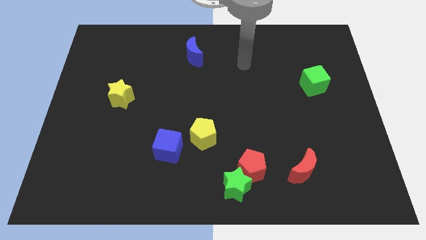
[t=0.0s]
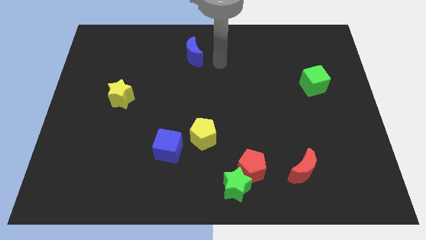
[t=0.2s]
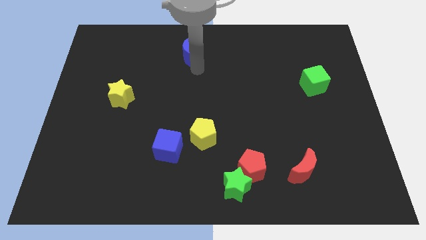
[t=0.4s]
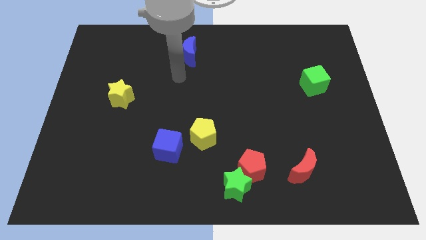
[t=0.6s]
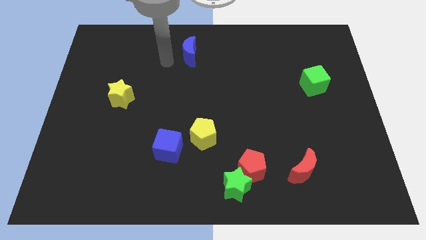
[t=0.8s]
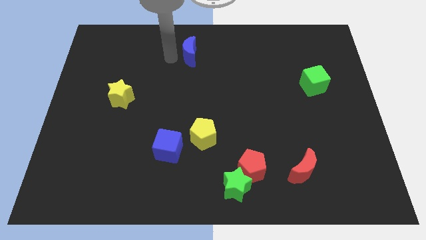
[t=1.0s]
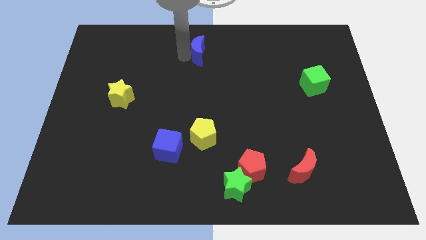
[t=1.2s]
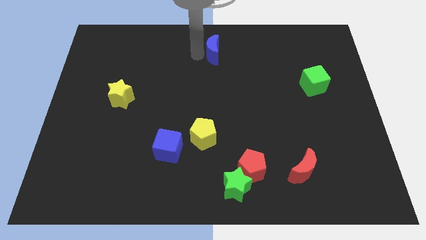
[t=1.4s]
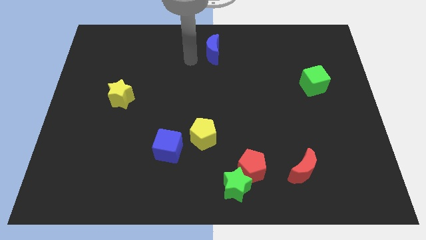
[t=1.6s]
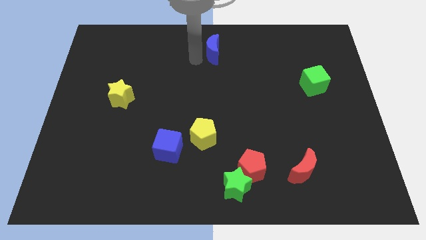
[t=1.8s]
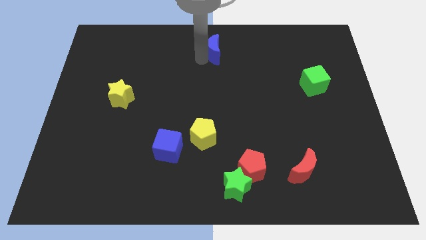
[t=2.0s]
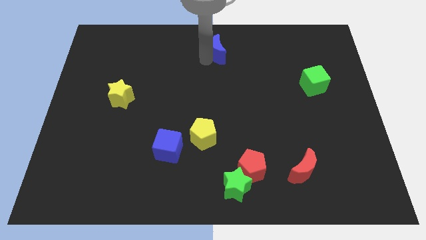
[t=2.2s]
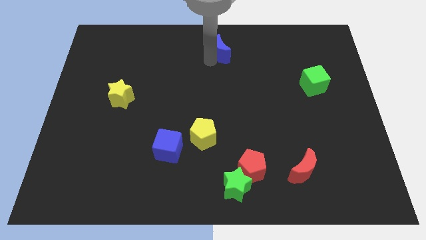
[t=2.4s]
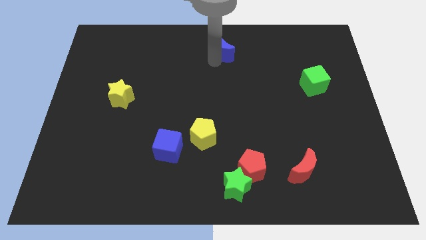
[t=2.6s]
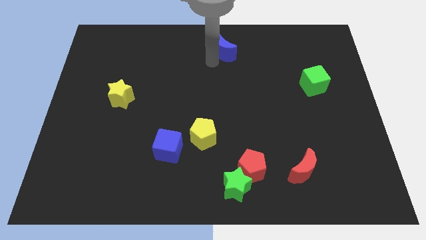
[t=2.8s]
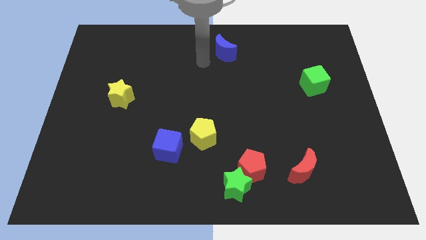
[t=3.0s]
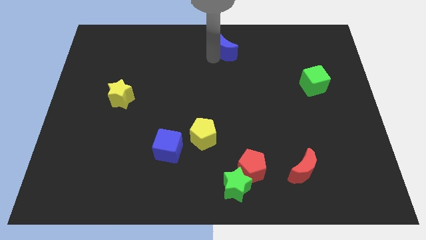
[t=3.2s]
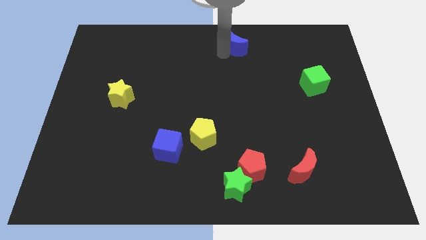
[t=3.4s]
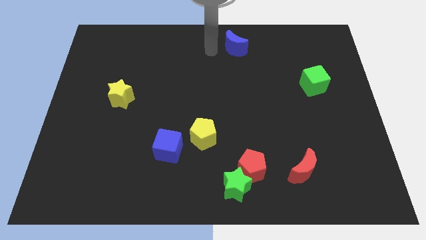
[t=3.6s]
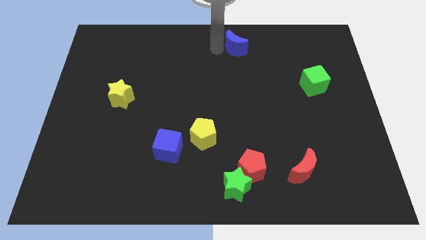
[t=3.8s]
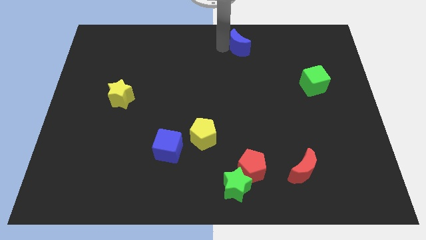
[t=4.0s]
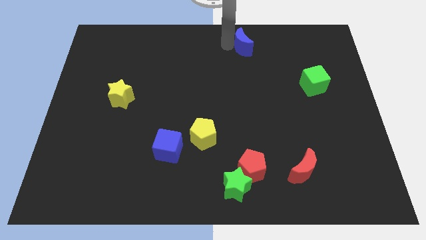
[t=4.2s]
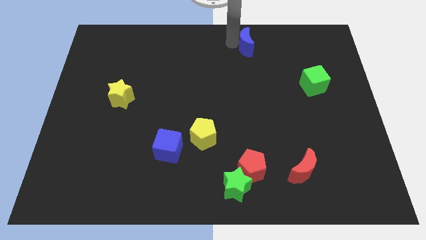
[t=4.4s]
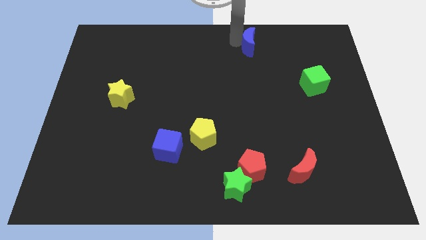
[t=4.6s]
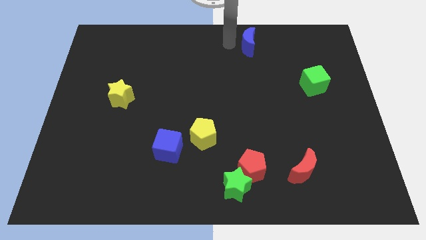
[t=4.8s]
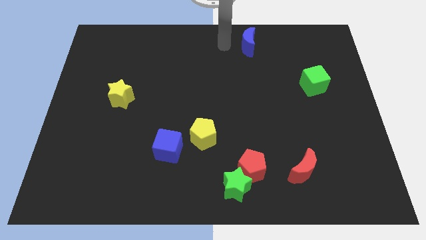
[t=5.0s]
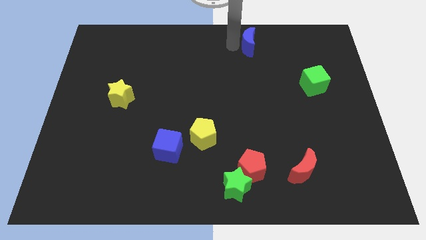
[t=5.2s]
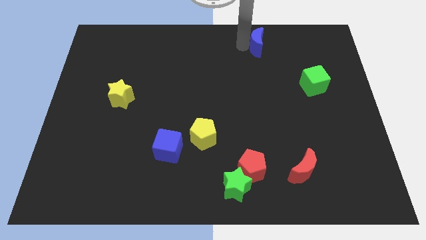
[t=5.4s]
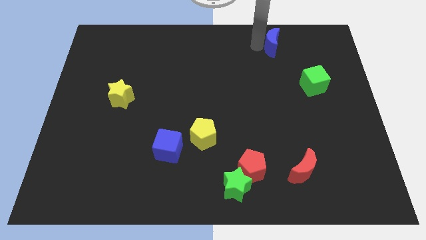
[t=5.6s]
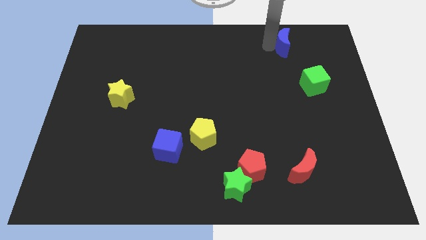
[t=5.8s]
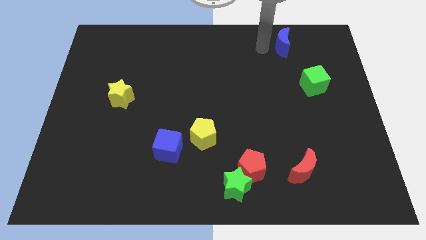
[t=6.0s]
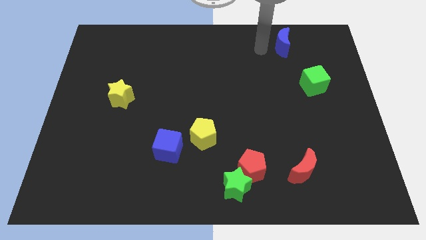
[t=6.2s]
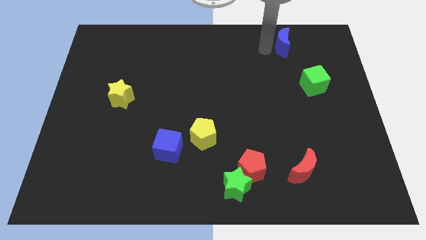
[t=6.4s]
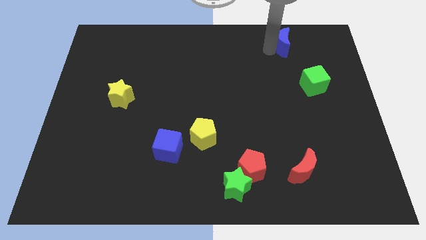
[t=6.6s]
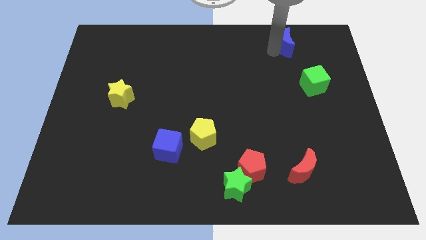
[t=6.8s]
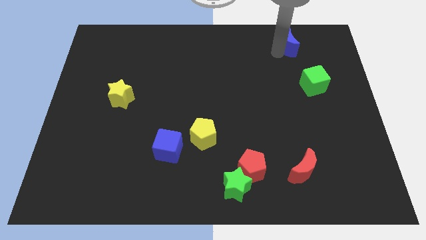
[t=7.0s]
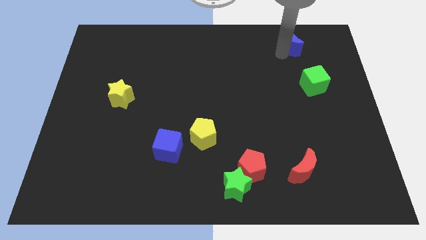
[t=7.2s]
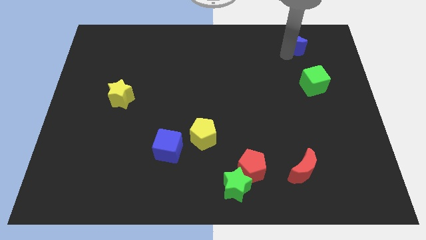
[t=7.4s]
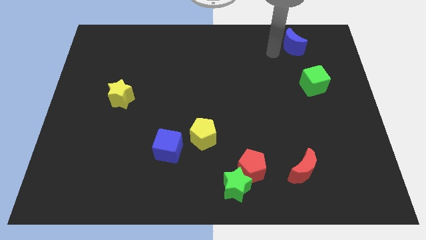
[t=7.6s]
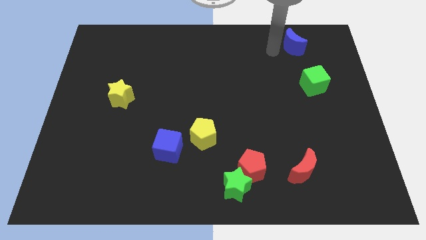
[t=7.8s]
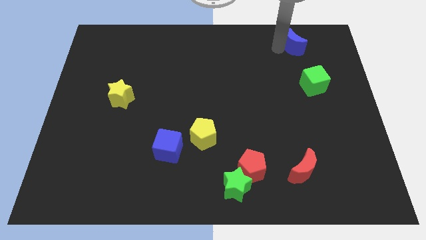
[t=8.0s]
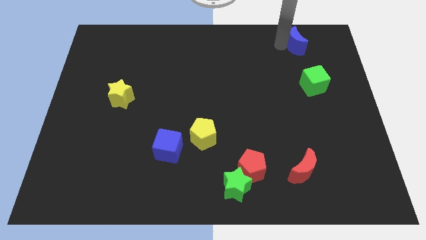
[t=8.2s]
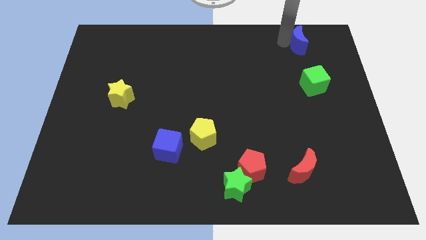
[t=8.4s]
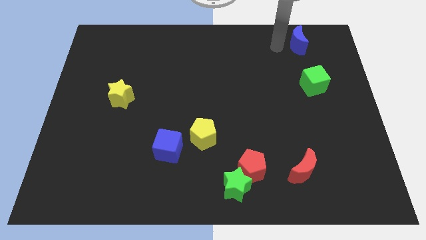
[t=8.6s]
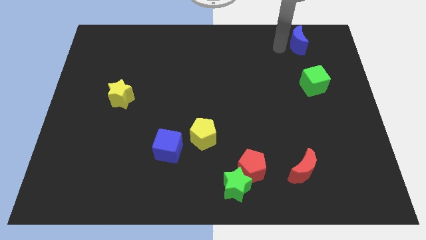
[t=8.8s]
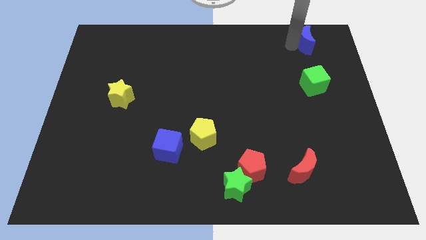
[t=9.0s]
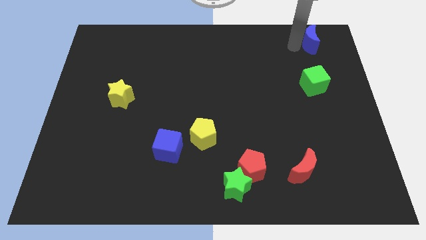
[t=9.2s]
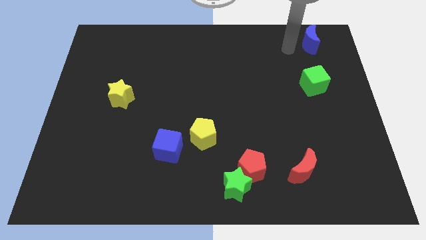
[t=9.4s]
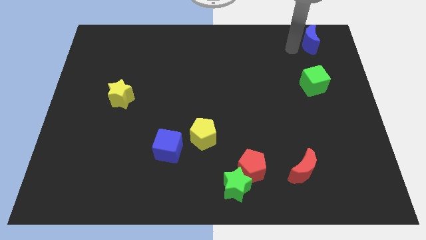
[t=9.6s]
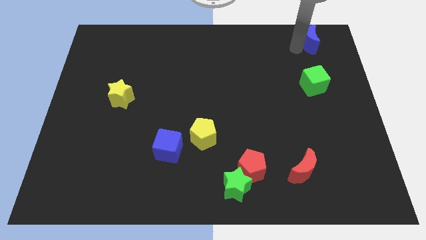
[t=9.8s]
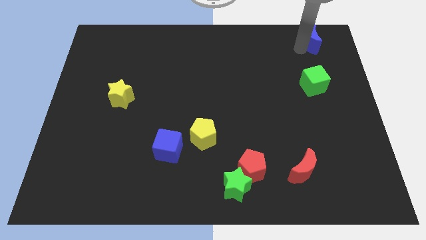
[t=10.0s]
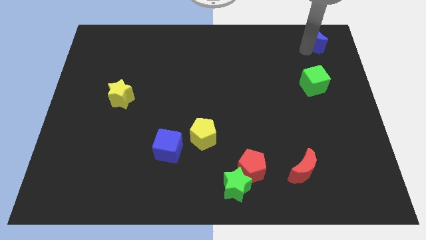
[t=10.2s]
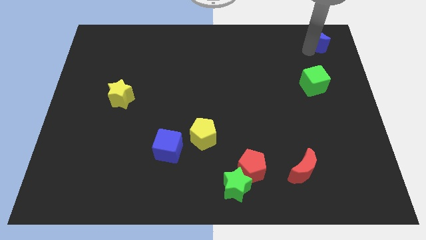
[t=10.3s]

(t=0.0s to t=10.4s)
push the blue moon to the top right

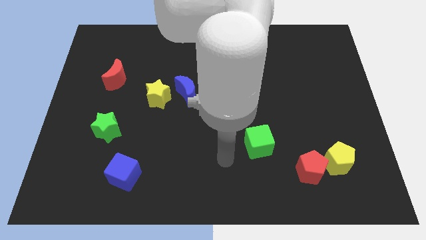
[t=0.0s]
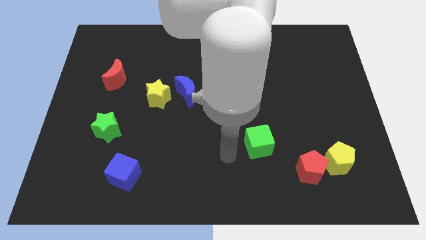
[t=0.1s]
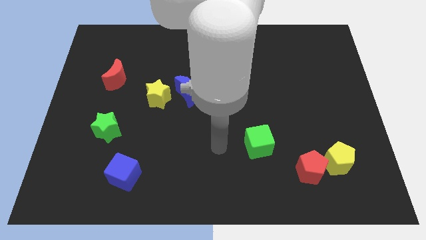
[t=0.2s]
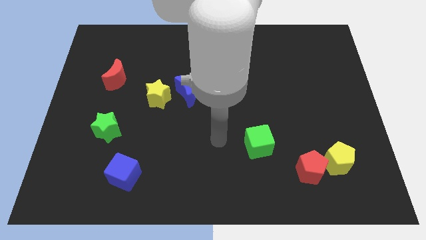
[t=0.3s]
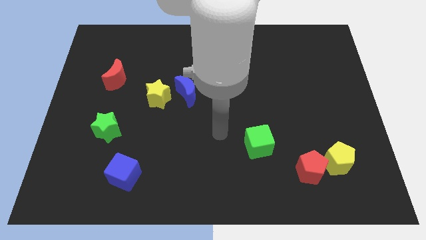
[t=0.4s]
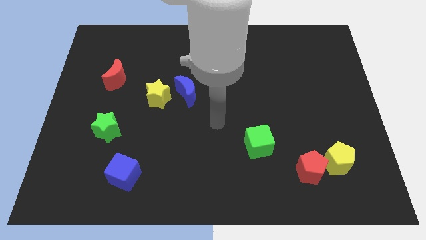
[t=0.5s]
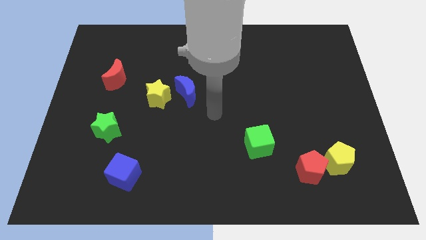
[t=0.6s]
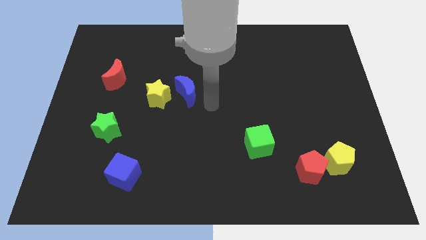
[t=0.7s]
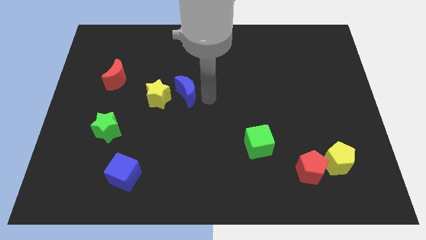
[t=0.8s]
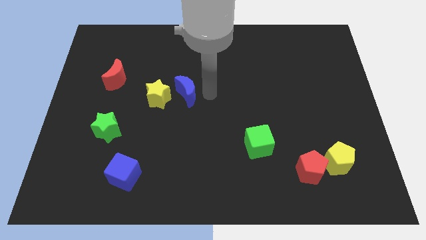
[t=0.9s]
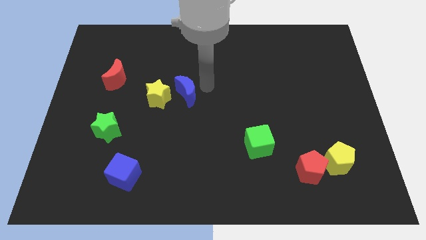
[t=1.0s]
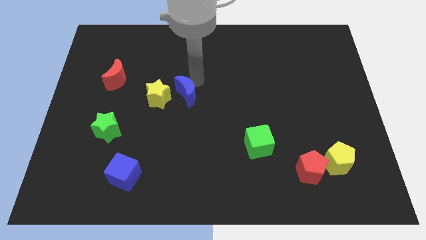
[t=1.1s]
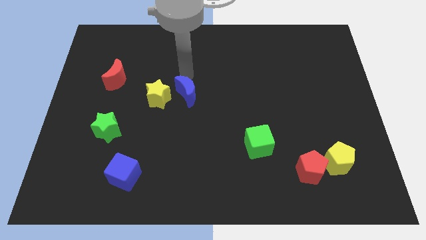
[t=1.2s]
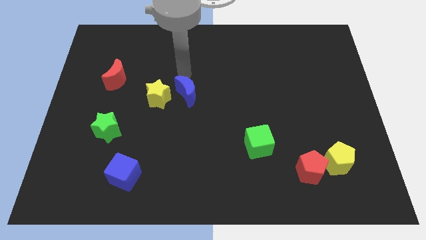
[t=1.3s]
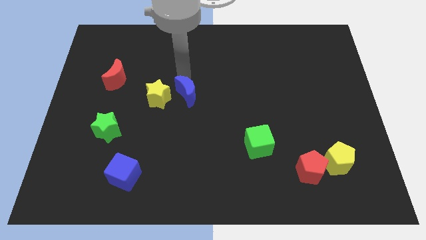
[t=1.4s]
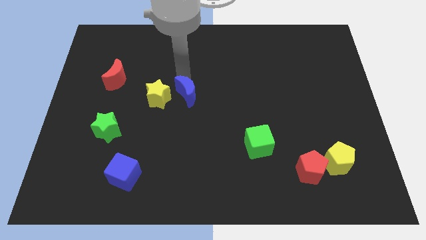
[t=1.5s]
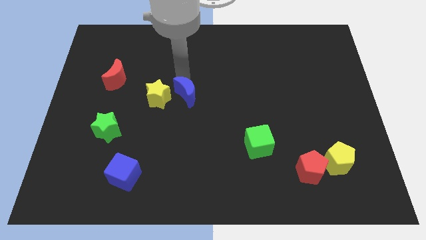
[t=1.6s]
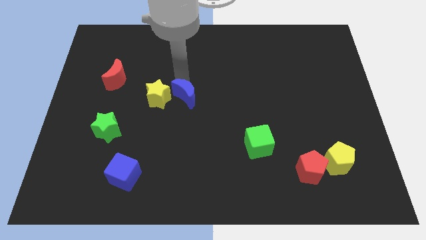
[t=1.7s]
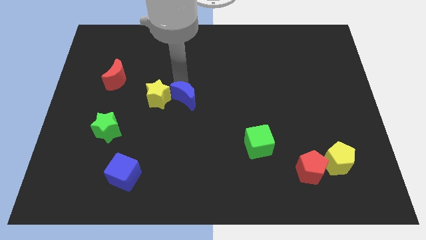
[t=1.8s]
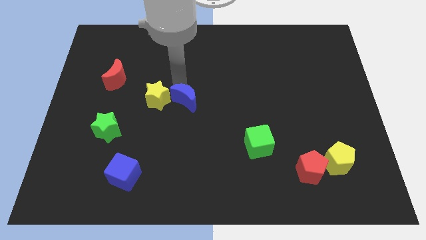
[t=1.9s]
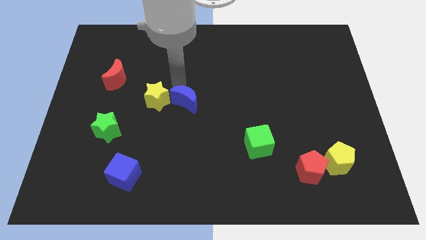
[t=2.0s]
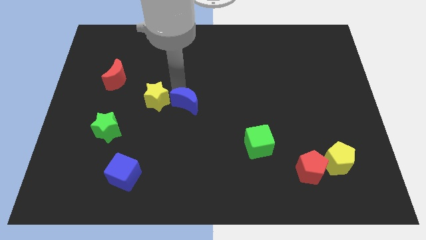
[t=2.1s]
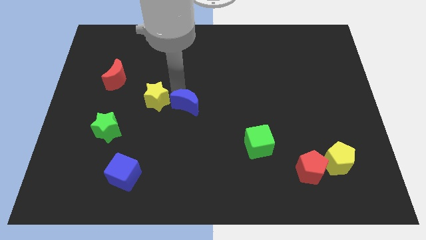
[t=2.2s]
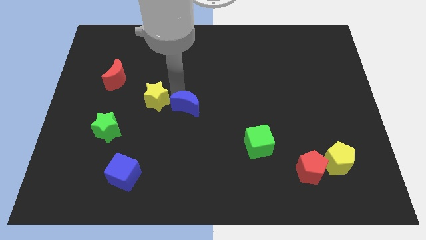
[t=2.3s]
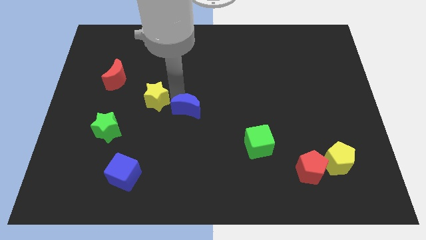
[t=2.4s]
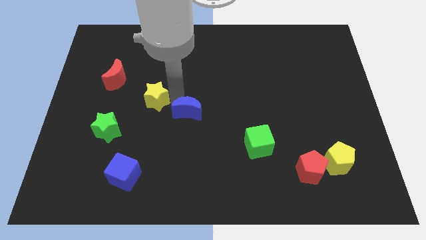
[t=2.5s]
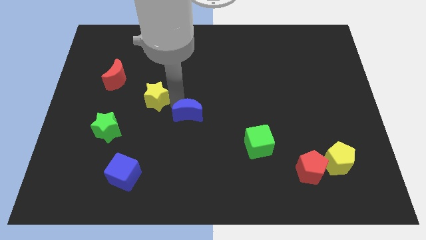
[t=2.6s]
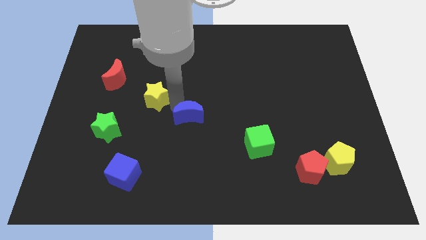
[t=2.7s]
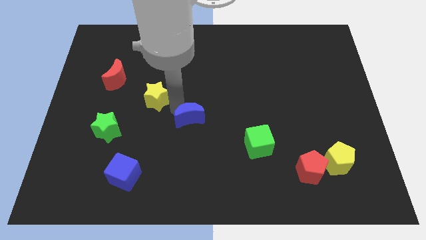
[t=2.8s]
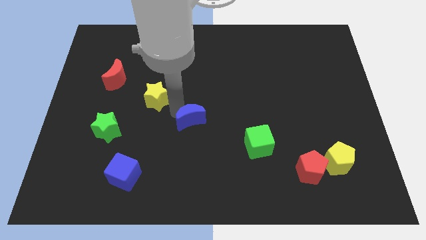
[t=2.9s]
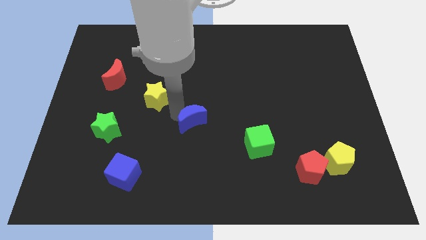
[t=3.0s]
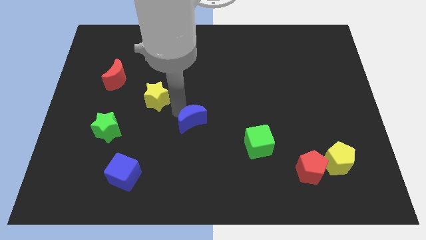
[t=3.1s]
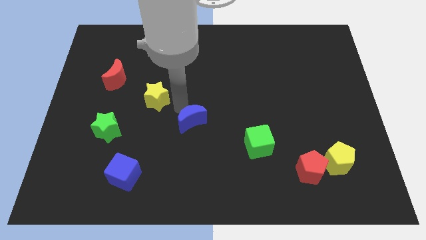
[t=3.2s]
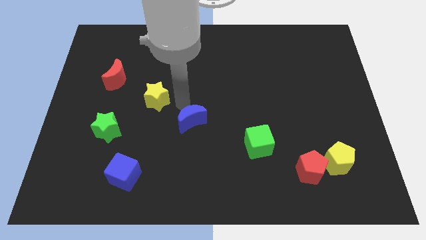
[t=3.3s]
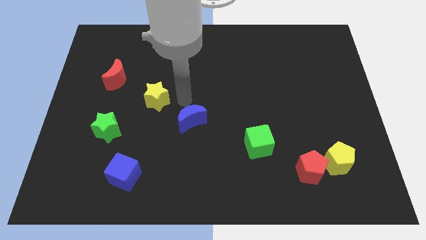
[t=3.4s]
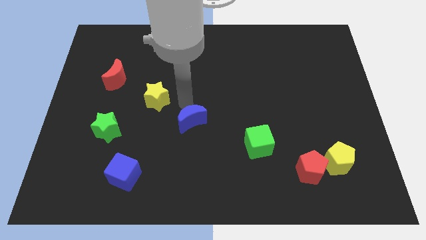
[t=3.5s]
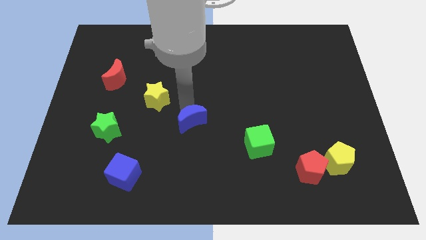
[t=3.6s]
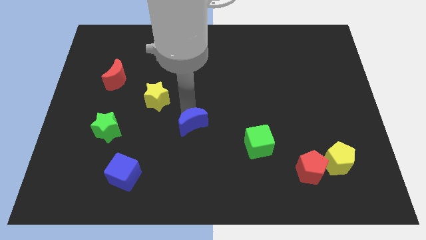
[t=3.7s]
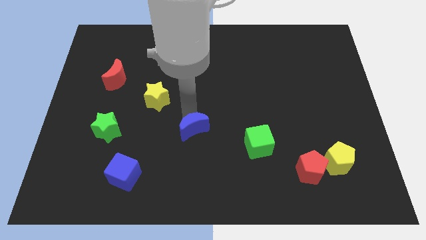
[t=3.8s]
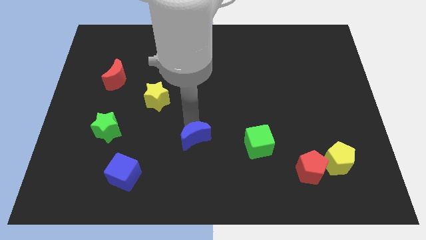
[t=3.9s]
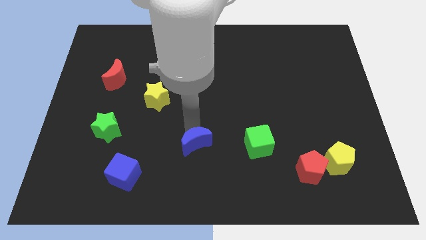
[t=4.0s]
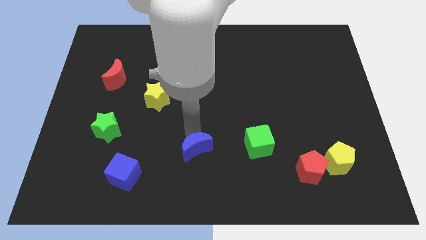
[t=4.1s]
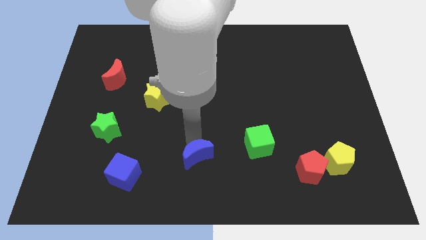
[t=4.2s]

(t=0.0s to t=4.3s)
push the blue moon to the bottom
